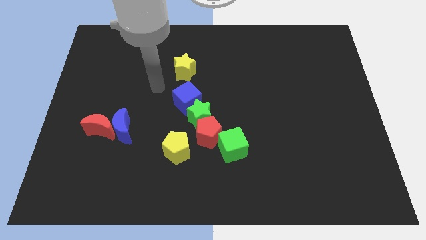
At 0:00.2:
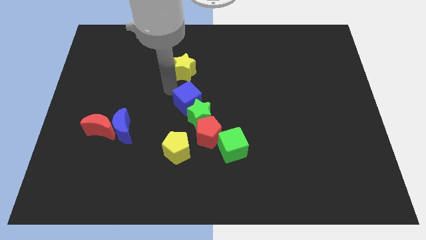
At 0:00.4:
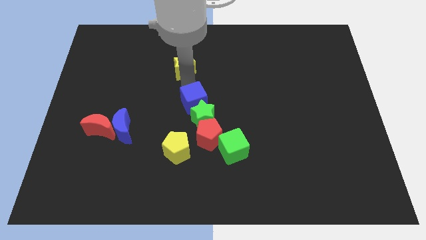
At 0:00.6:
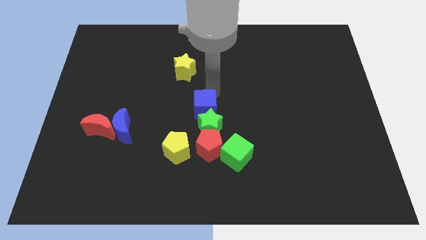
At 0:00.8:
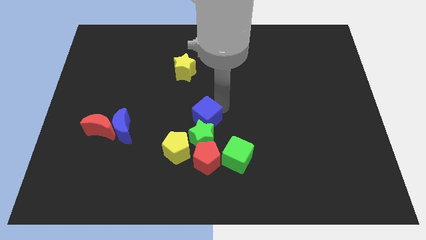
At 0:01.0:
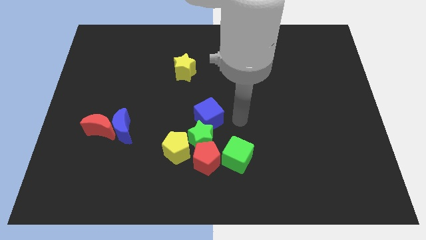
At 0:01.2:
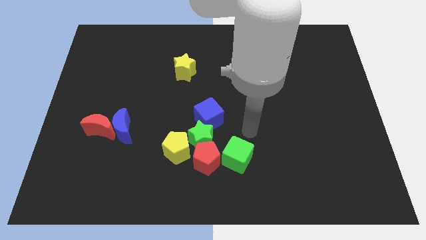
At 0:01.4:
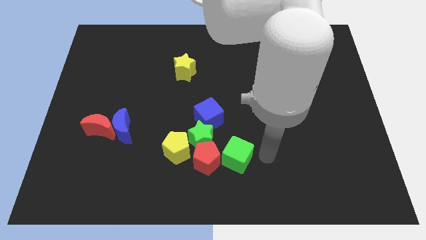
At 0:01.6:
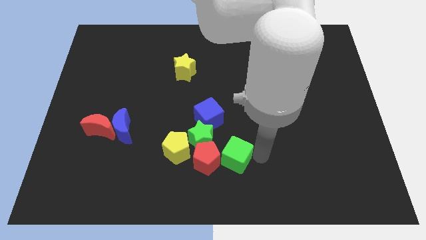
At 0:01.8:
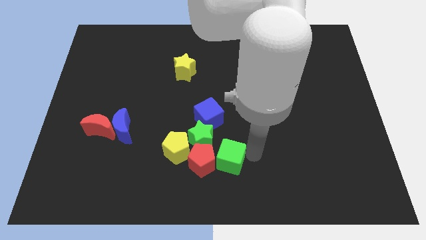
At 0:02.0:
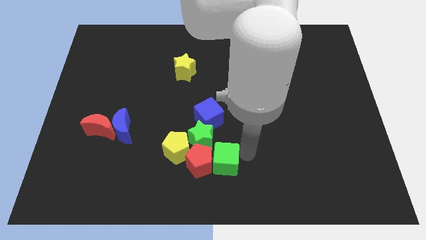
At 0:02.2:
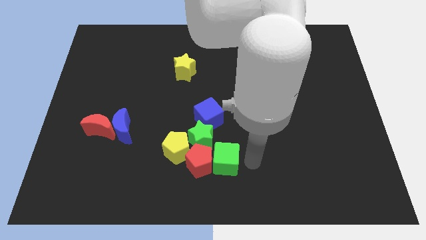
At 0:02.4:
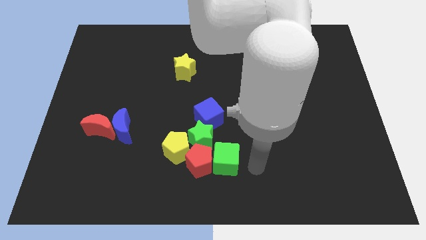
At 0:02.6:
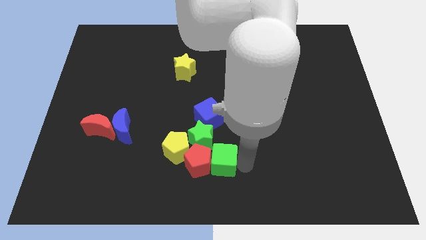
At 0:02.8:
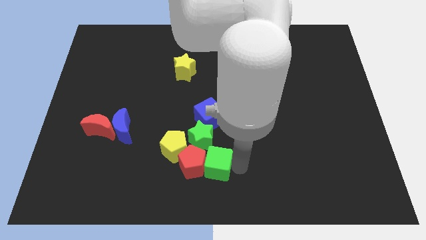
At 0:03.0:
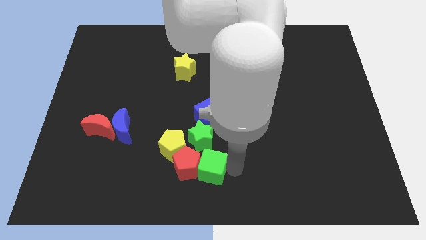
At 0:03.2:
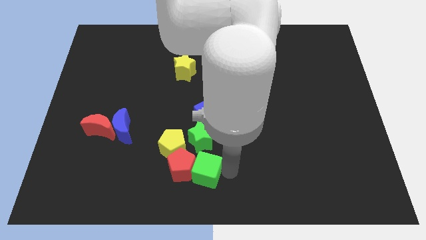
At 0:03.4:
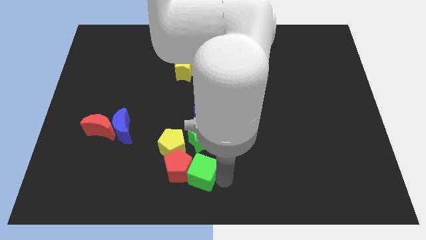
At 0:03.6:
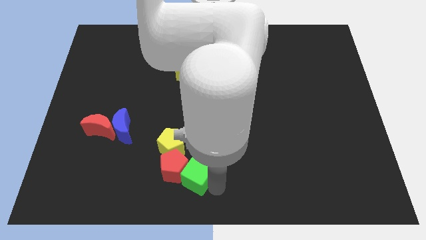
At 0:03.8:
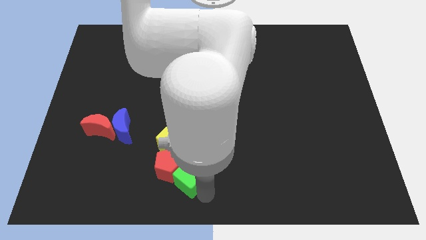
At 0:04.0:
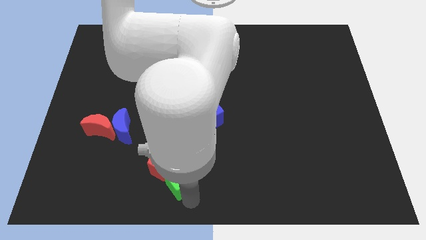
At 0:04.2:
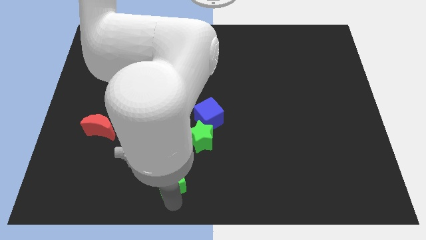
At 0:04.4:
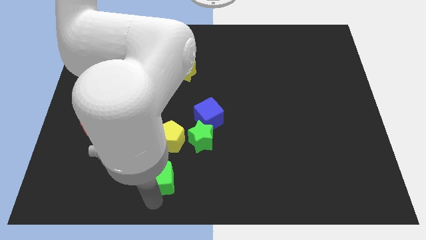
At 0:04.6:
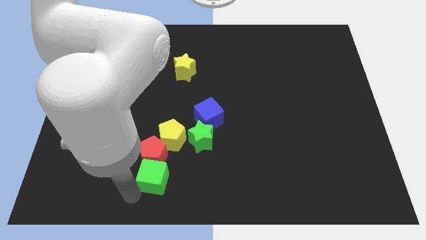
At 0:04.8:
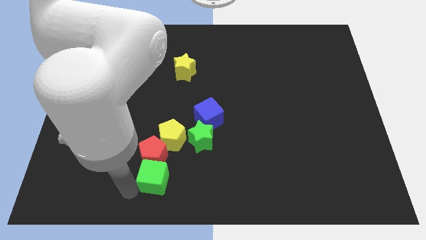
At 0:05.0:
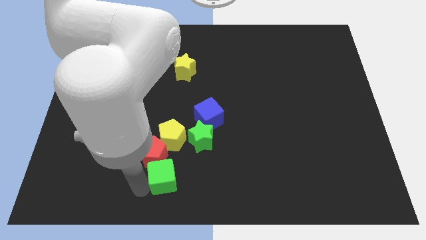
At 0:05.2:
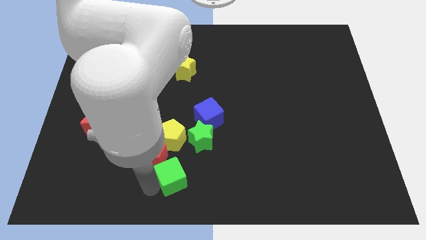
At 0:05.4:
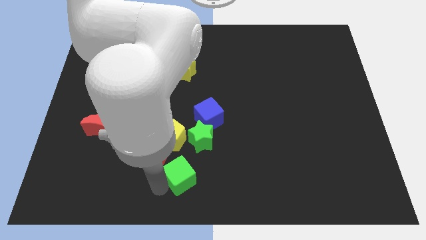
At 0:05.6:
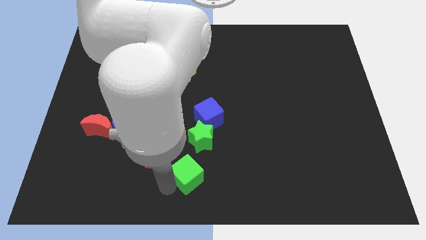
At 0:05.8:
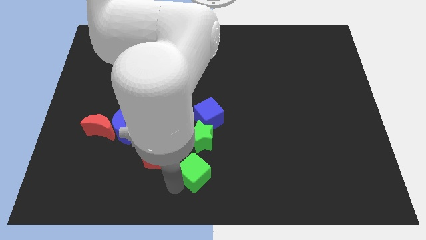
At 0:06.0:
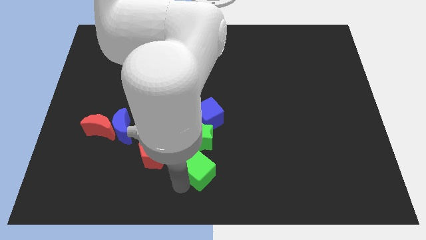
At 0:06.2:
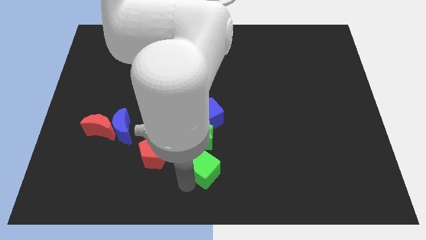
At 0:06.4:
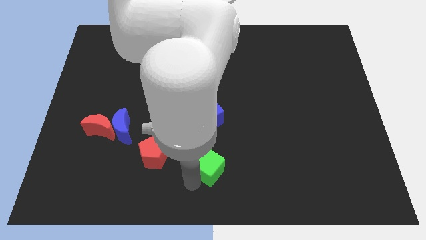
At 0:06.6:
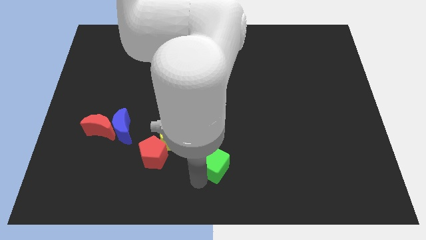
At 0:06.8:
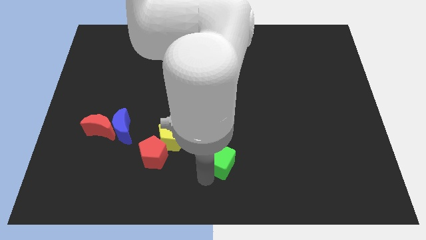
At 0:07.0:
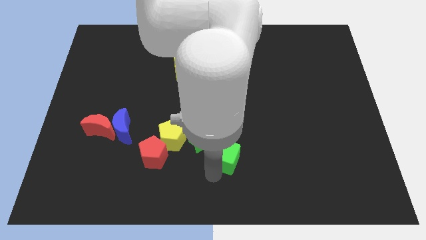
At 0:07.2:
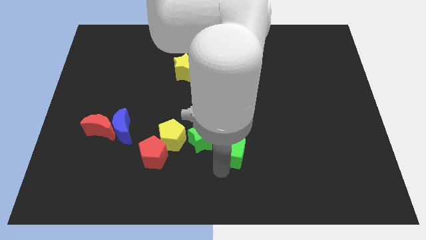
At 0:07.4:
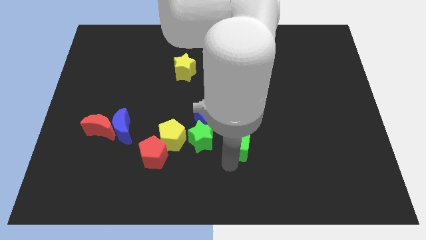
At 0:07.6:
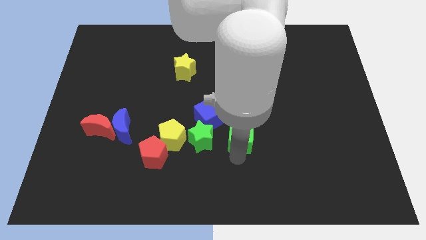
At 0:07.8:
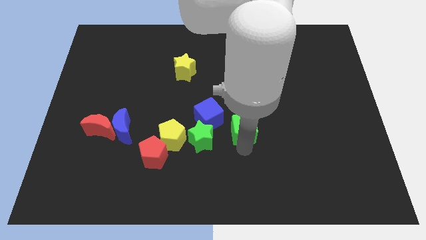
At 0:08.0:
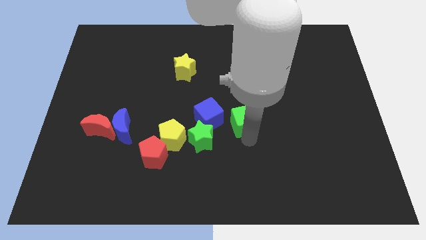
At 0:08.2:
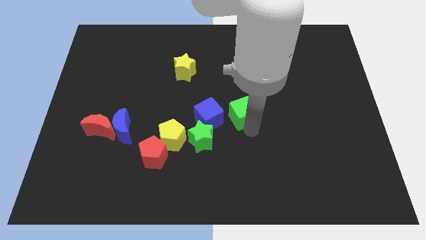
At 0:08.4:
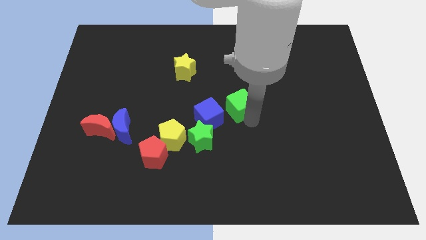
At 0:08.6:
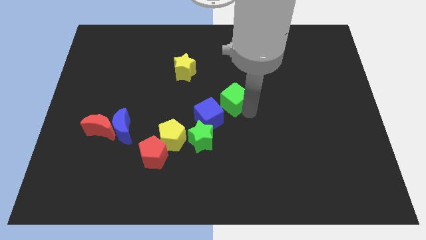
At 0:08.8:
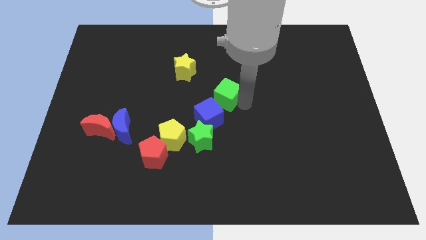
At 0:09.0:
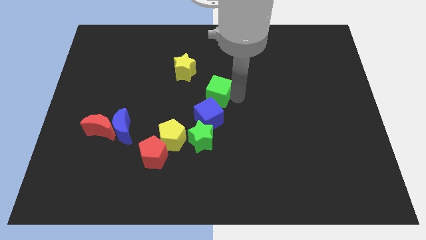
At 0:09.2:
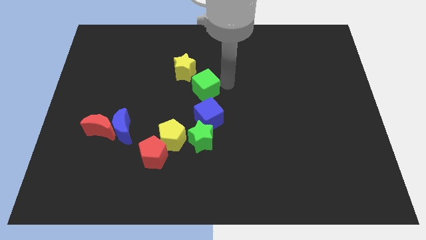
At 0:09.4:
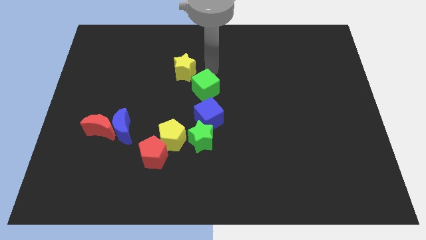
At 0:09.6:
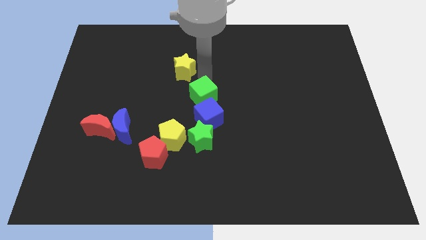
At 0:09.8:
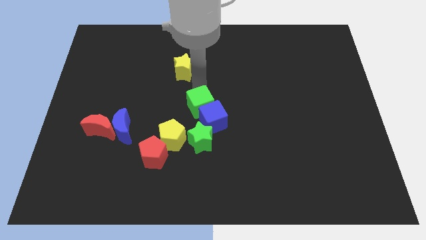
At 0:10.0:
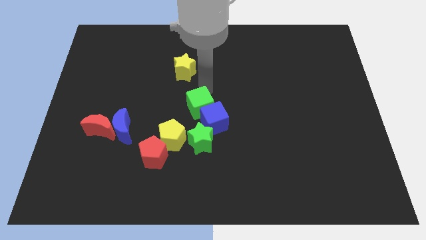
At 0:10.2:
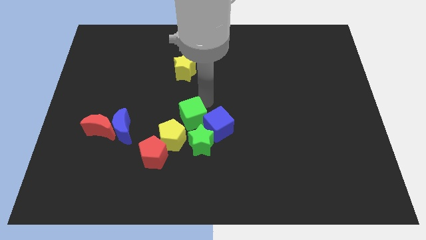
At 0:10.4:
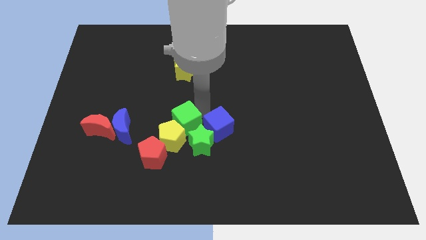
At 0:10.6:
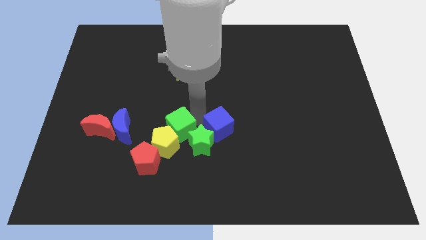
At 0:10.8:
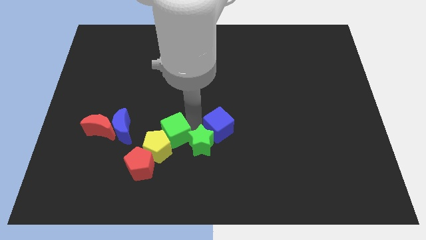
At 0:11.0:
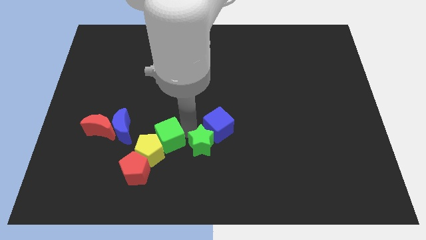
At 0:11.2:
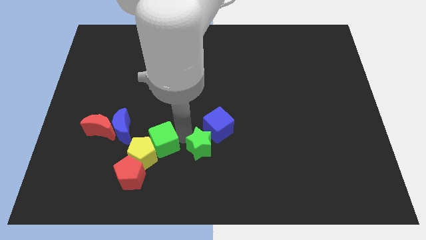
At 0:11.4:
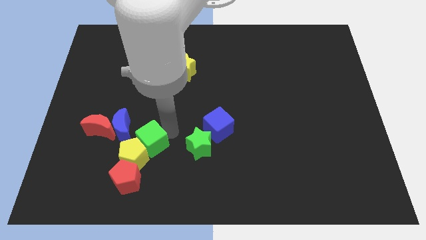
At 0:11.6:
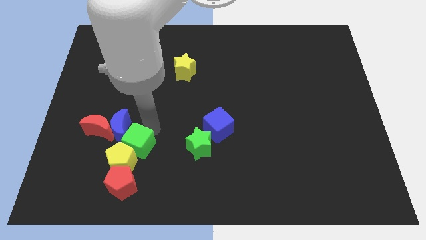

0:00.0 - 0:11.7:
push the green cube to the left

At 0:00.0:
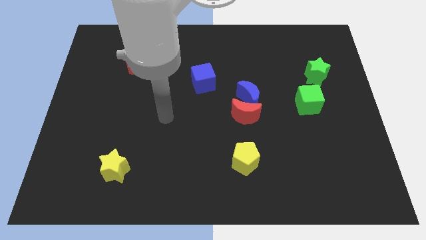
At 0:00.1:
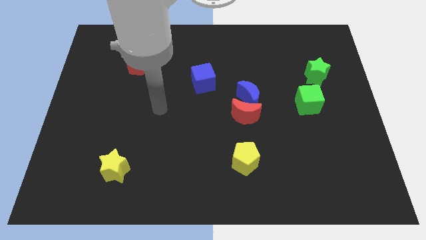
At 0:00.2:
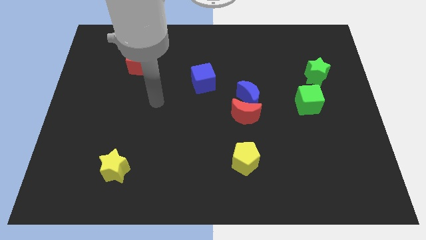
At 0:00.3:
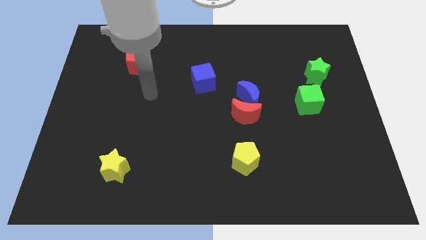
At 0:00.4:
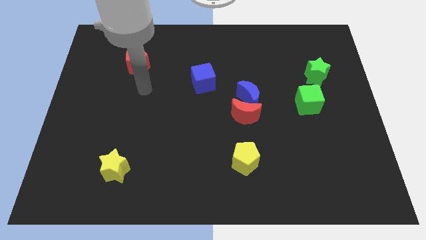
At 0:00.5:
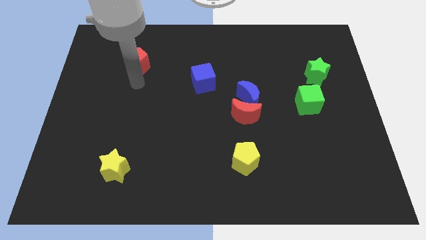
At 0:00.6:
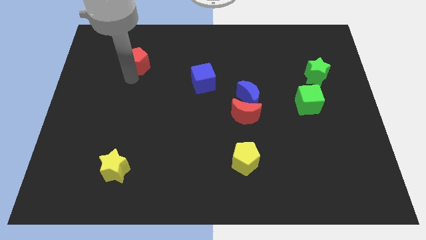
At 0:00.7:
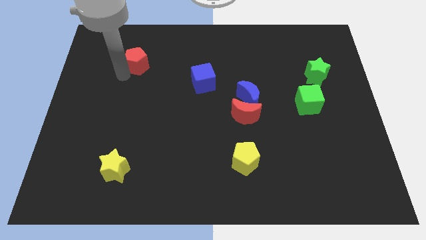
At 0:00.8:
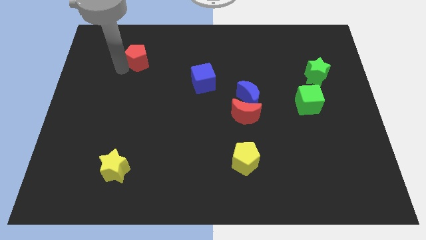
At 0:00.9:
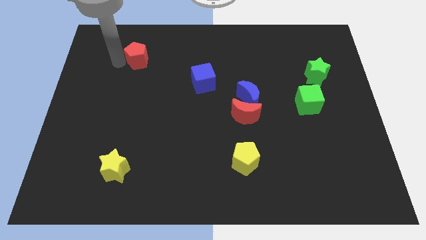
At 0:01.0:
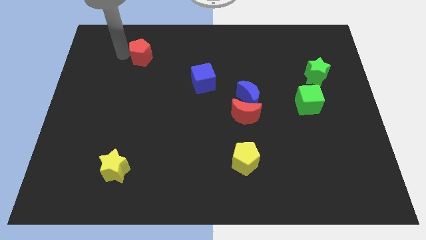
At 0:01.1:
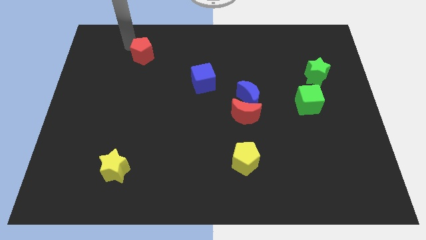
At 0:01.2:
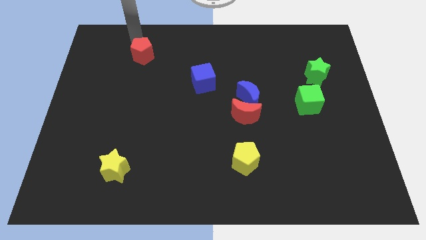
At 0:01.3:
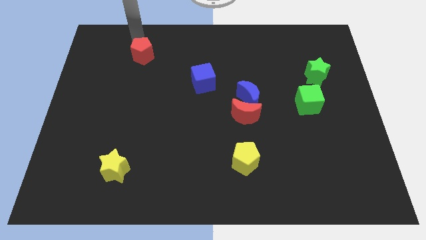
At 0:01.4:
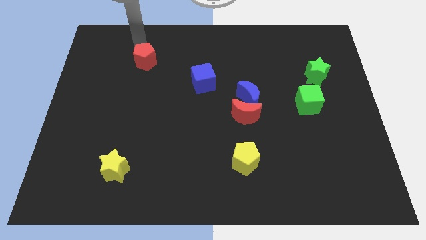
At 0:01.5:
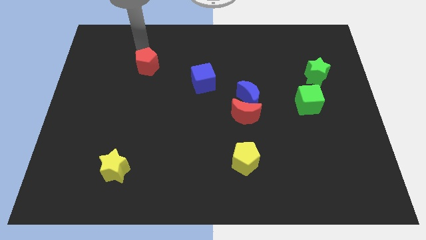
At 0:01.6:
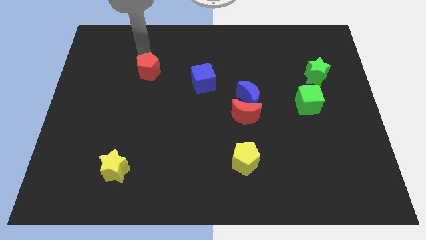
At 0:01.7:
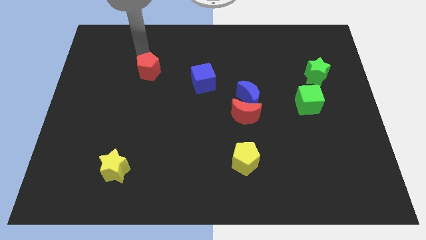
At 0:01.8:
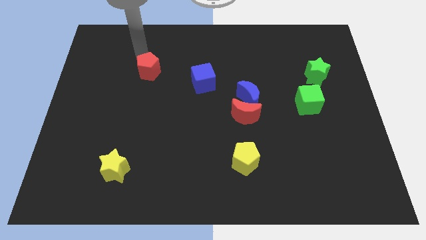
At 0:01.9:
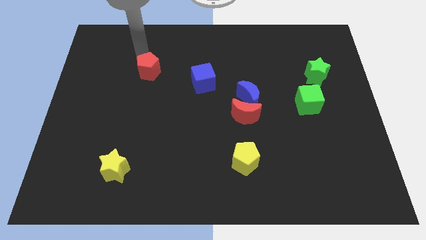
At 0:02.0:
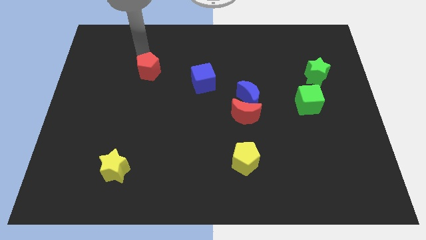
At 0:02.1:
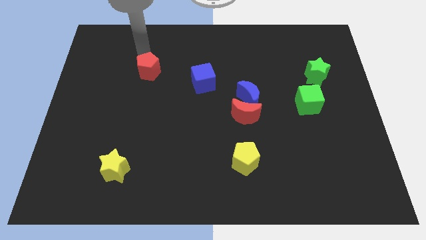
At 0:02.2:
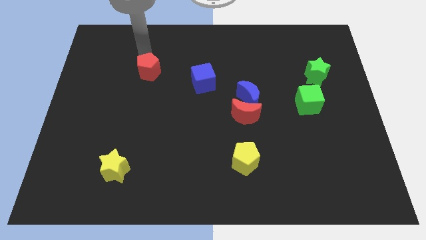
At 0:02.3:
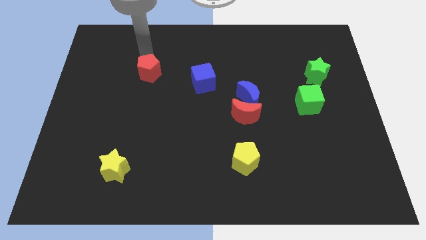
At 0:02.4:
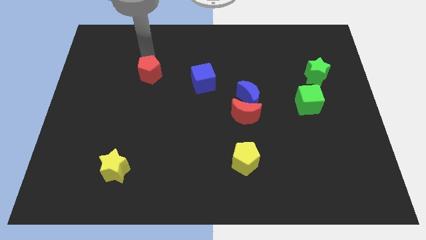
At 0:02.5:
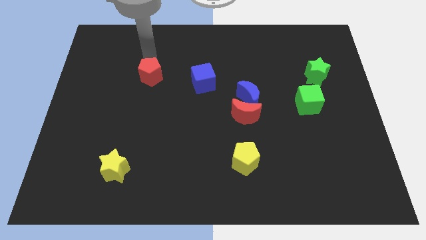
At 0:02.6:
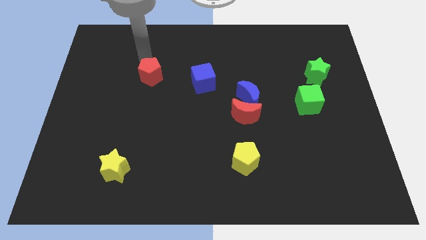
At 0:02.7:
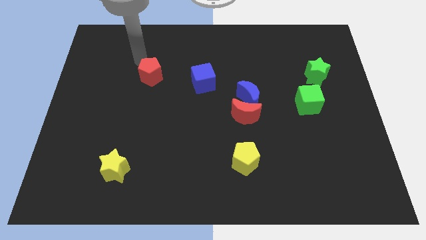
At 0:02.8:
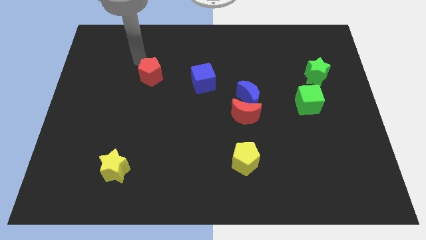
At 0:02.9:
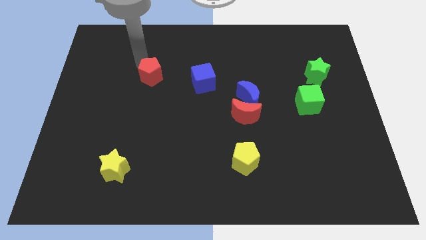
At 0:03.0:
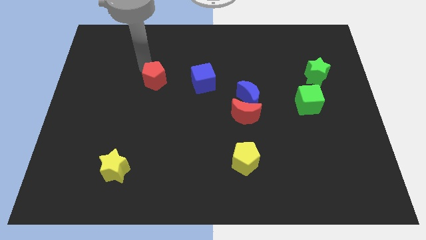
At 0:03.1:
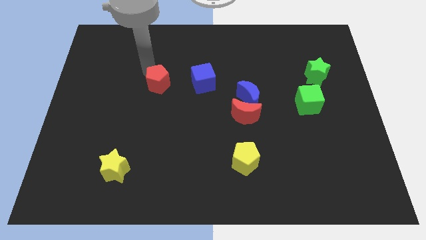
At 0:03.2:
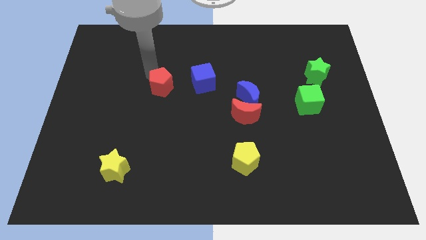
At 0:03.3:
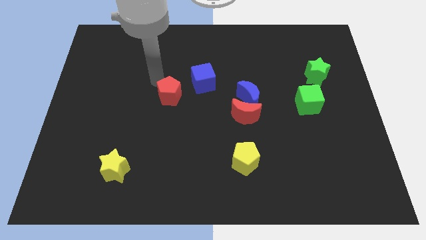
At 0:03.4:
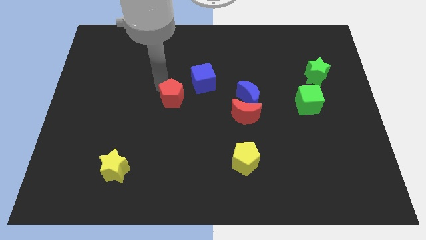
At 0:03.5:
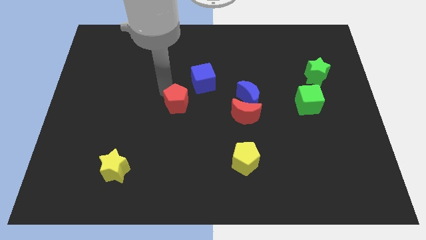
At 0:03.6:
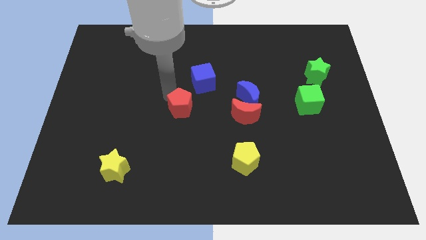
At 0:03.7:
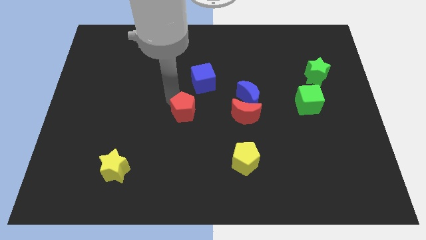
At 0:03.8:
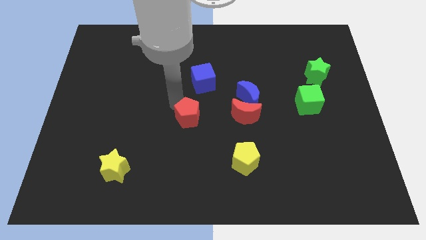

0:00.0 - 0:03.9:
push the red pentagon downwards and then right
